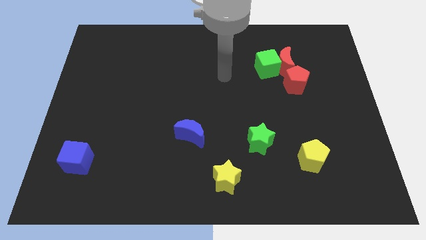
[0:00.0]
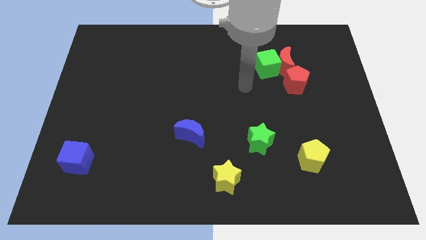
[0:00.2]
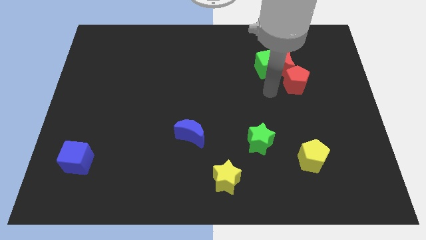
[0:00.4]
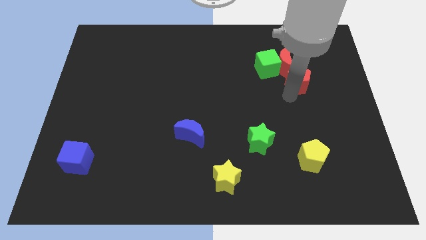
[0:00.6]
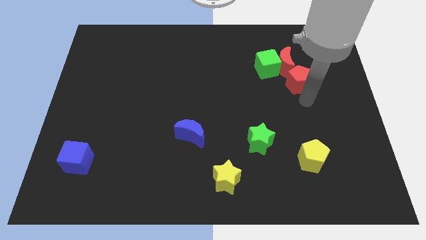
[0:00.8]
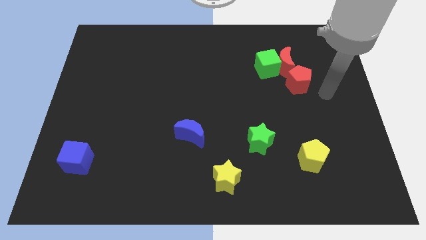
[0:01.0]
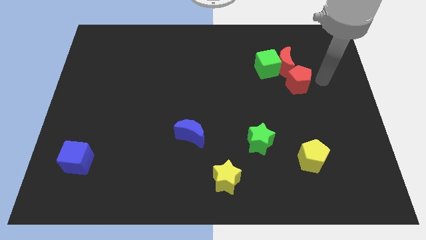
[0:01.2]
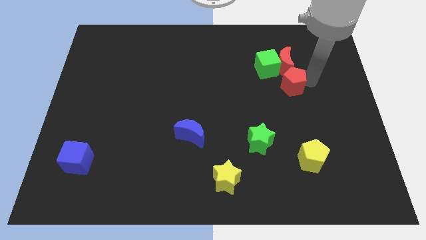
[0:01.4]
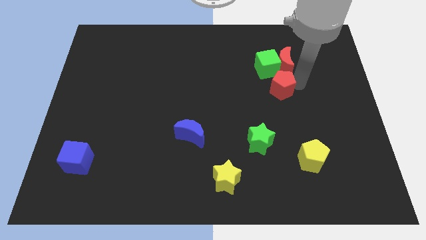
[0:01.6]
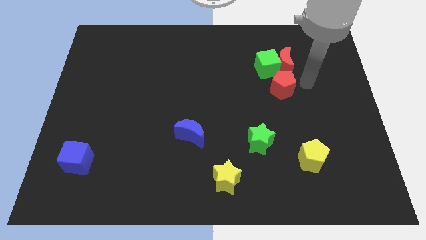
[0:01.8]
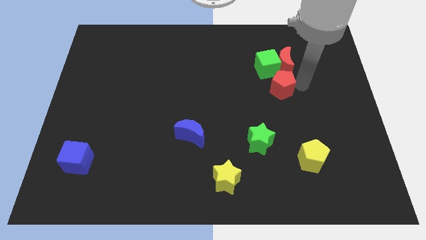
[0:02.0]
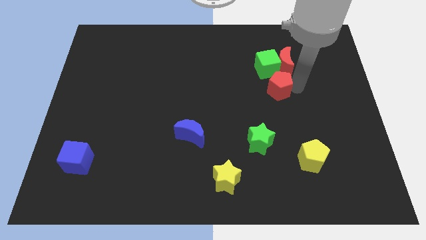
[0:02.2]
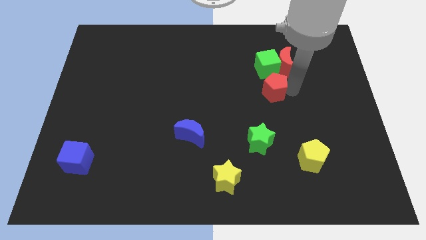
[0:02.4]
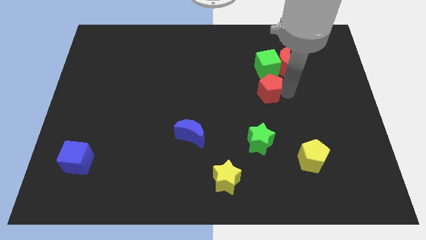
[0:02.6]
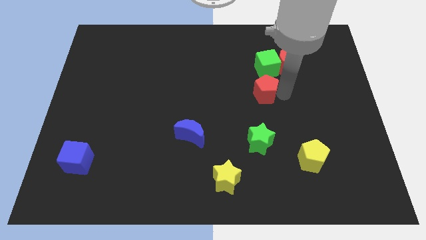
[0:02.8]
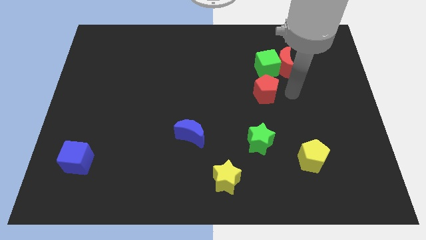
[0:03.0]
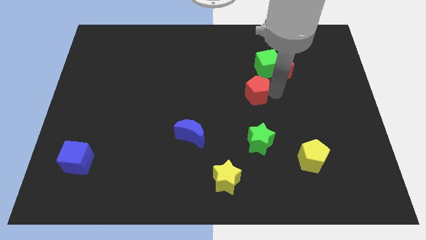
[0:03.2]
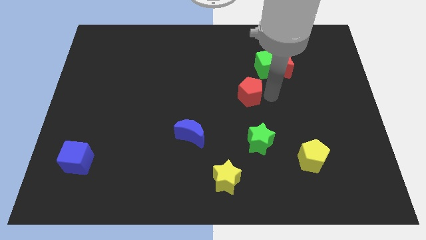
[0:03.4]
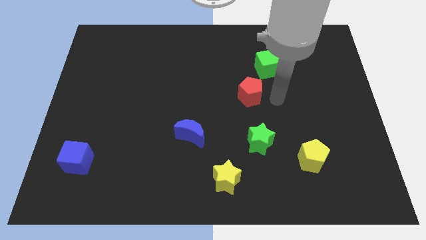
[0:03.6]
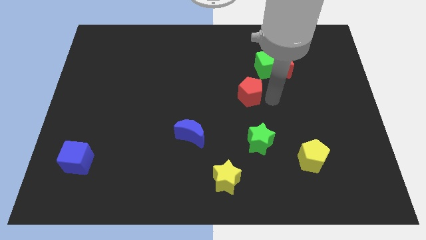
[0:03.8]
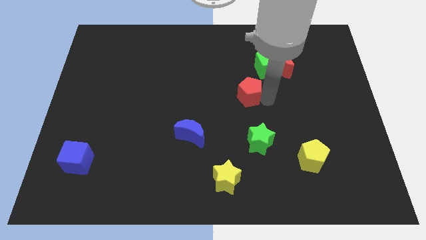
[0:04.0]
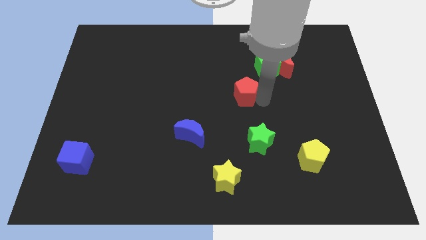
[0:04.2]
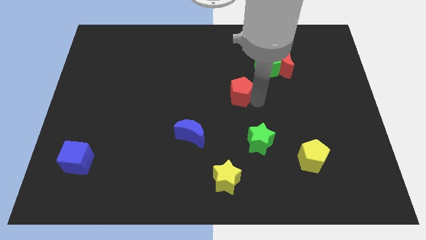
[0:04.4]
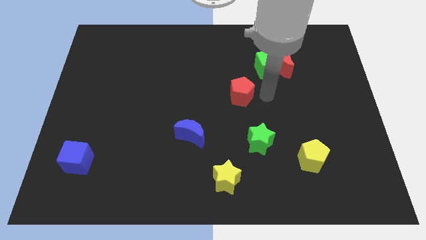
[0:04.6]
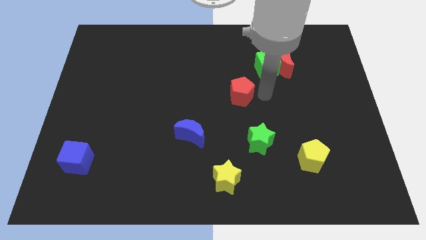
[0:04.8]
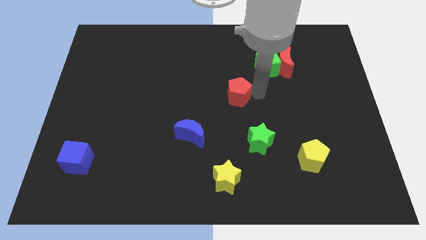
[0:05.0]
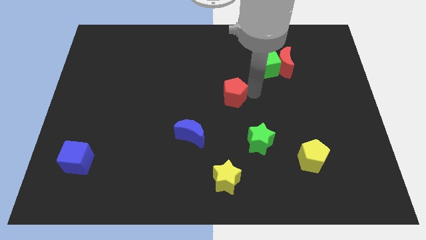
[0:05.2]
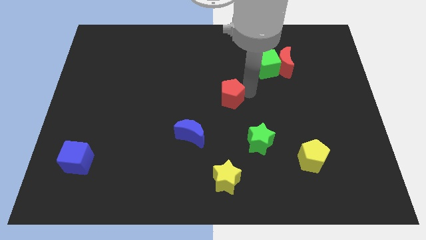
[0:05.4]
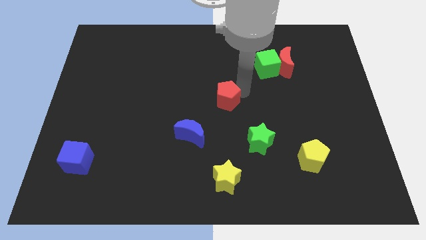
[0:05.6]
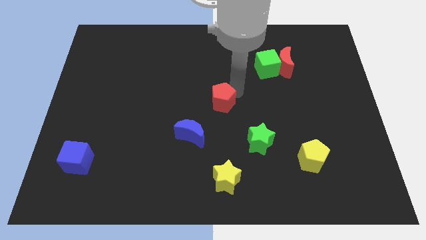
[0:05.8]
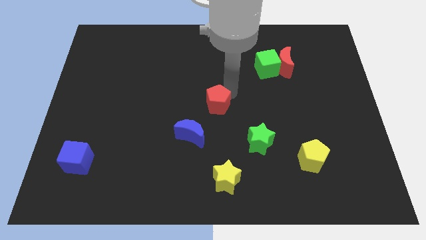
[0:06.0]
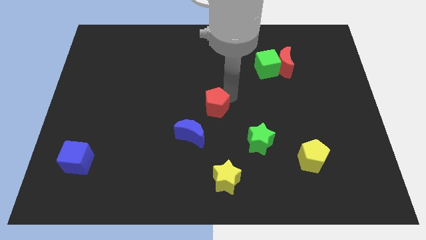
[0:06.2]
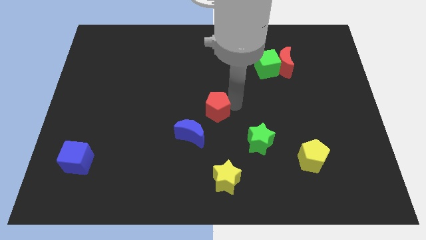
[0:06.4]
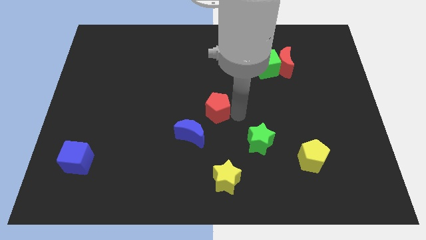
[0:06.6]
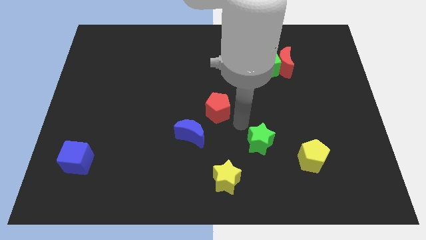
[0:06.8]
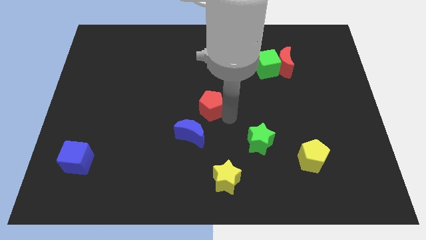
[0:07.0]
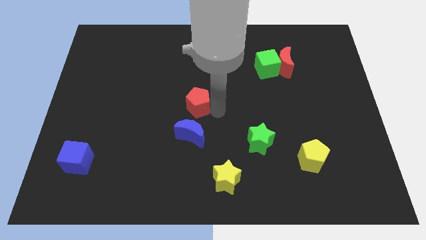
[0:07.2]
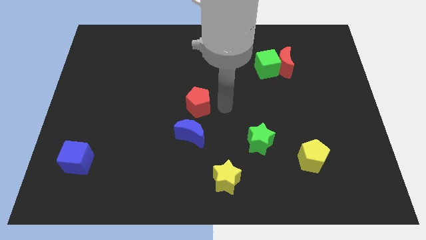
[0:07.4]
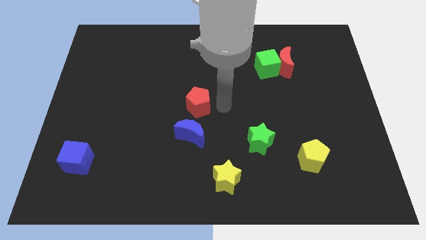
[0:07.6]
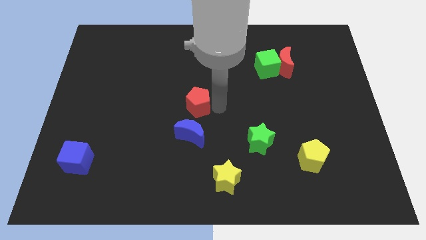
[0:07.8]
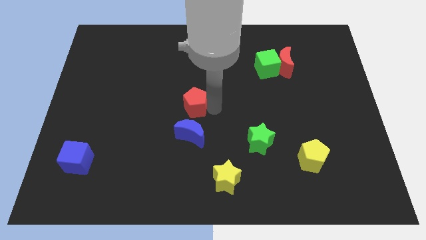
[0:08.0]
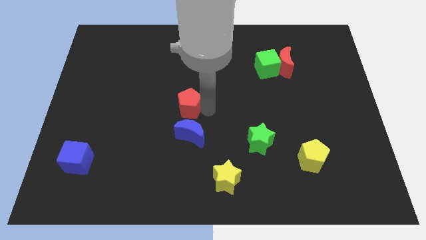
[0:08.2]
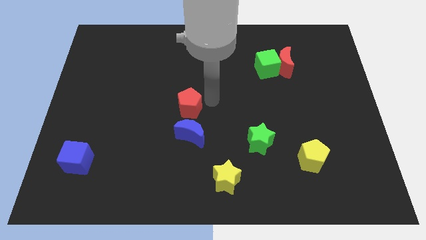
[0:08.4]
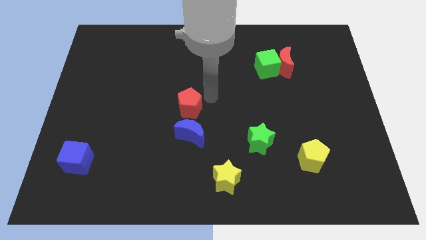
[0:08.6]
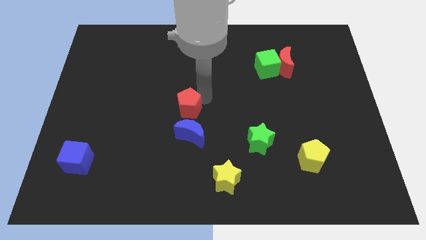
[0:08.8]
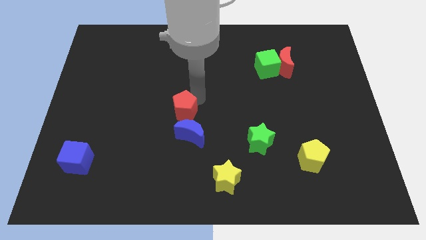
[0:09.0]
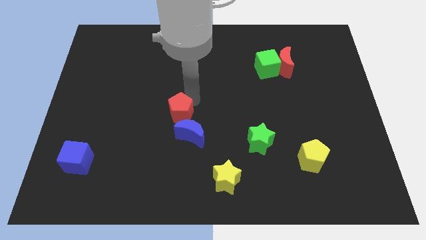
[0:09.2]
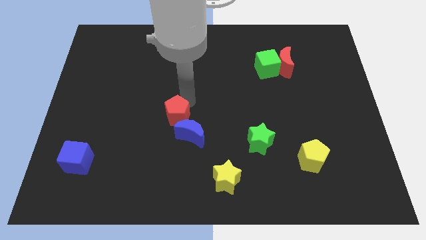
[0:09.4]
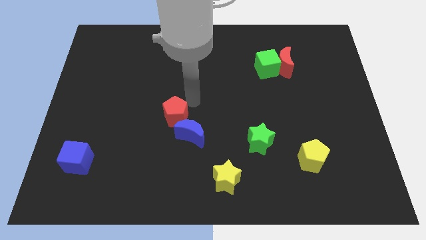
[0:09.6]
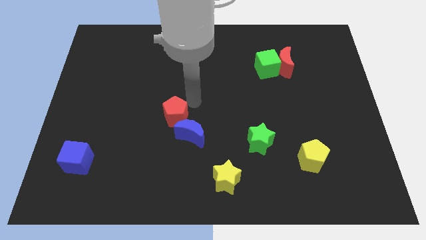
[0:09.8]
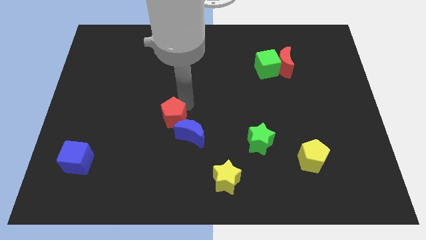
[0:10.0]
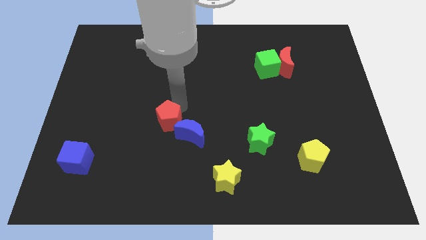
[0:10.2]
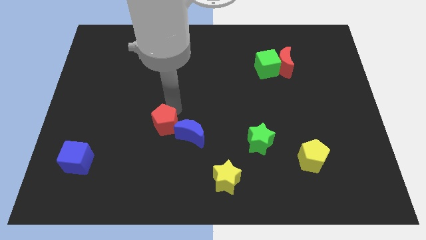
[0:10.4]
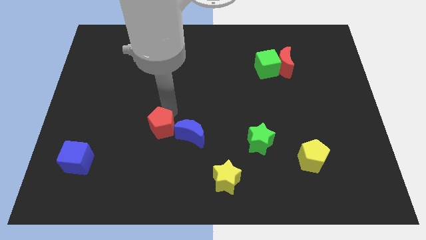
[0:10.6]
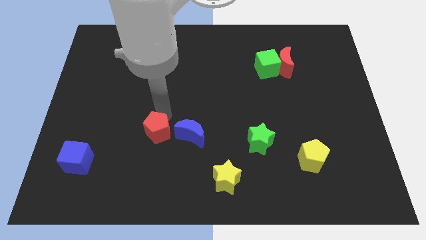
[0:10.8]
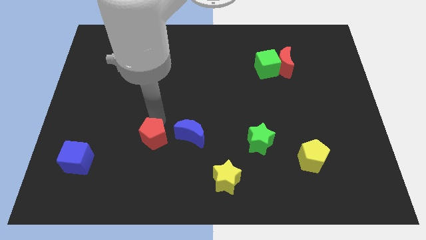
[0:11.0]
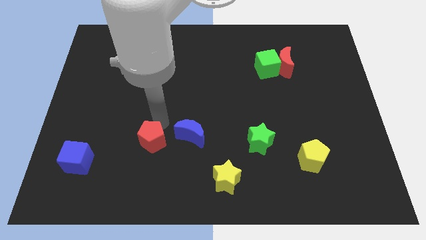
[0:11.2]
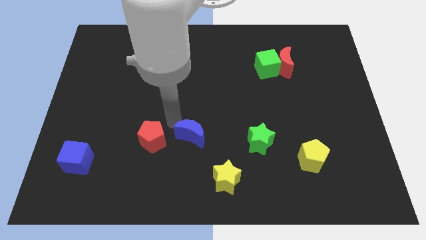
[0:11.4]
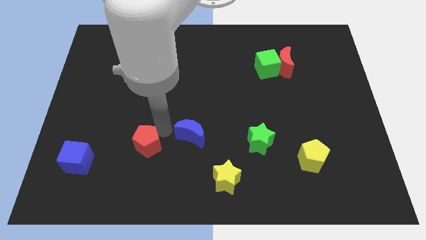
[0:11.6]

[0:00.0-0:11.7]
push the red pentagon right of the blue cube

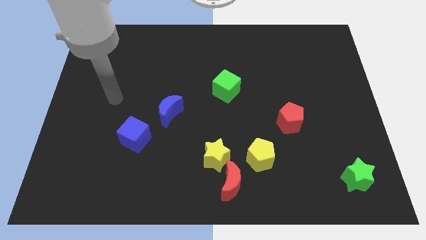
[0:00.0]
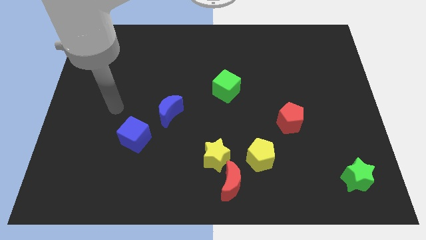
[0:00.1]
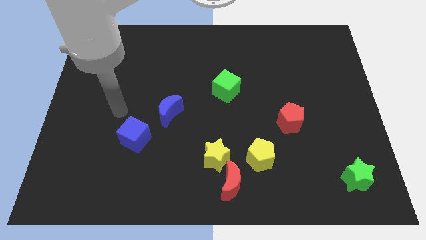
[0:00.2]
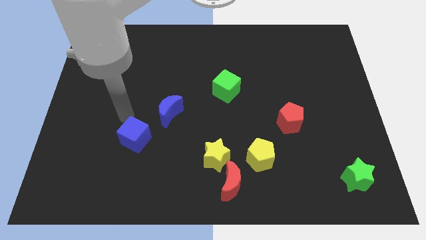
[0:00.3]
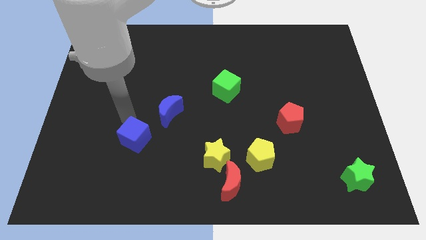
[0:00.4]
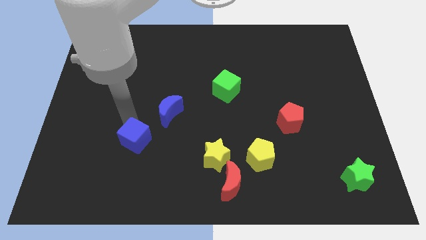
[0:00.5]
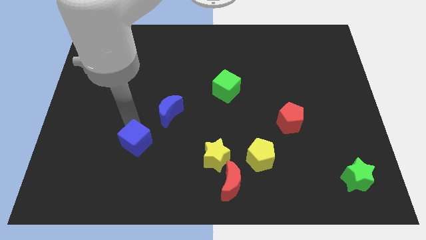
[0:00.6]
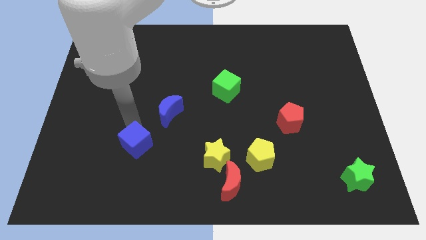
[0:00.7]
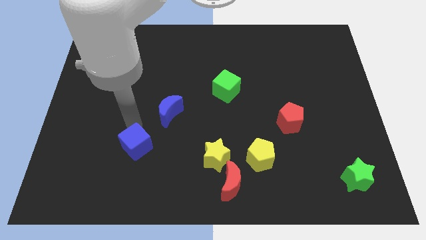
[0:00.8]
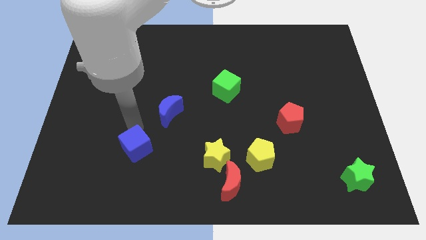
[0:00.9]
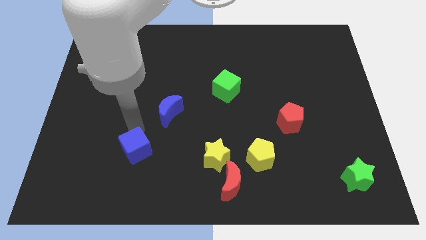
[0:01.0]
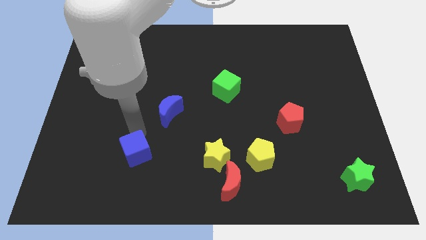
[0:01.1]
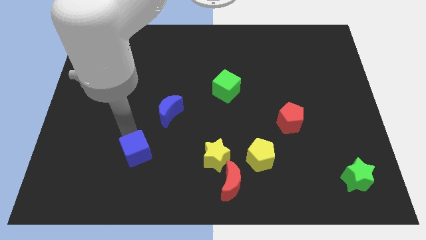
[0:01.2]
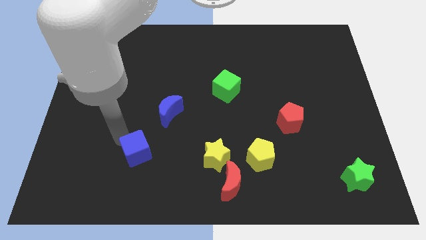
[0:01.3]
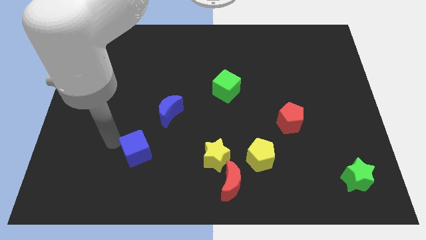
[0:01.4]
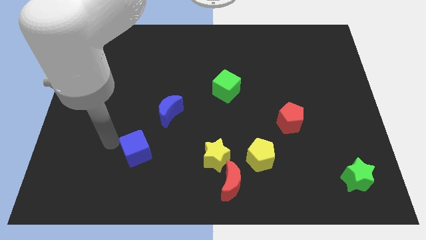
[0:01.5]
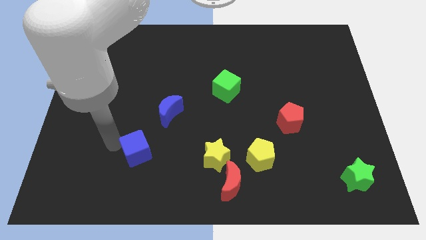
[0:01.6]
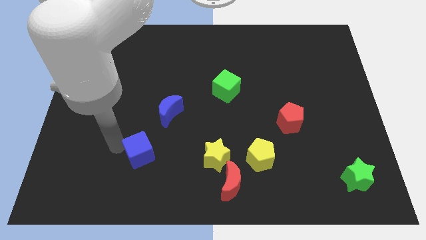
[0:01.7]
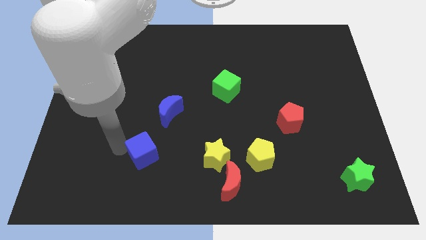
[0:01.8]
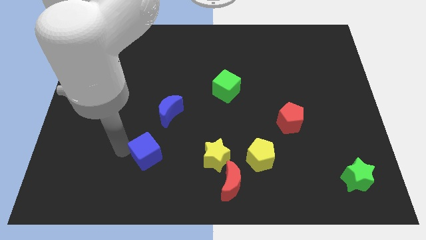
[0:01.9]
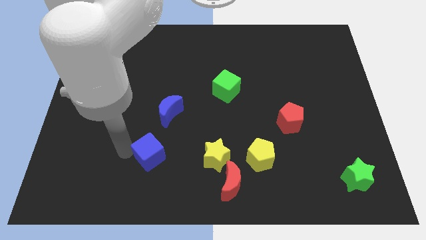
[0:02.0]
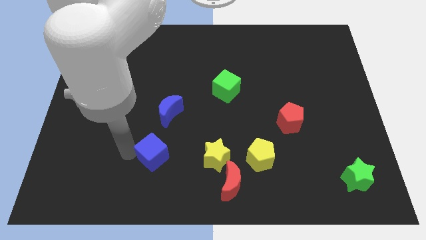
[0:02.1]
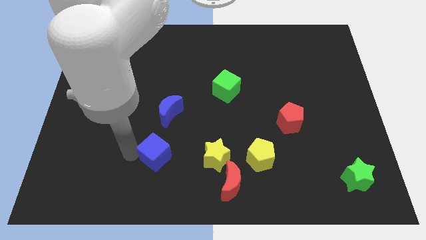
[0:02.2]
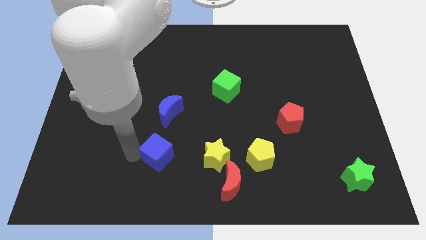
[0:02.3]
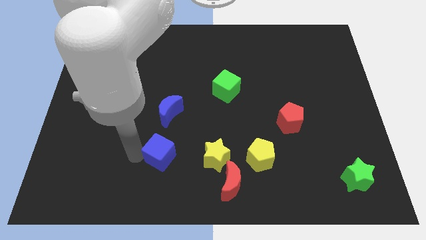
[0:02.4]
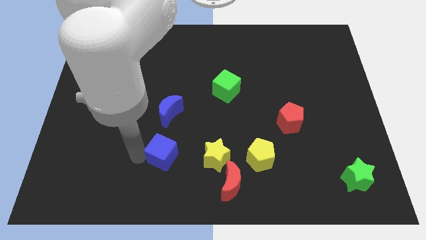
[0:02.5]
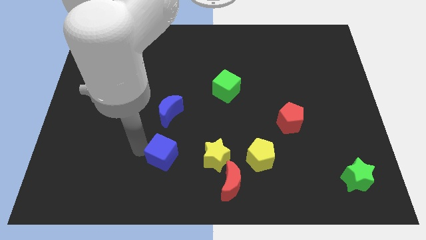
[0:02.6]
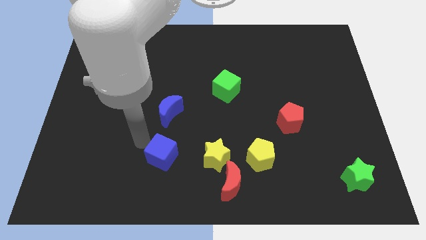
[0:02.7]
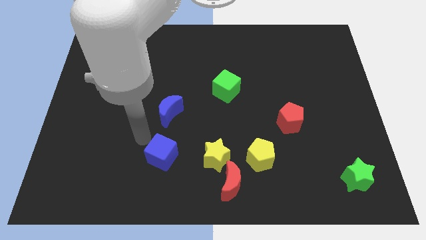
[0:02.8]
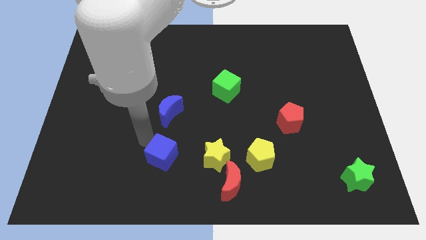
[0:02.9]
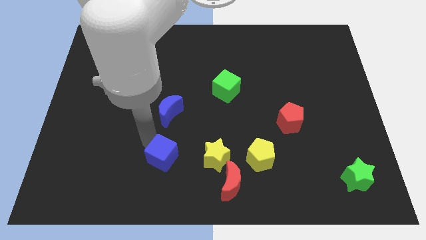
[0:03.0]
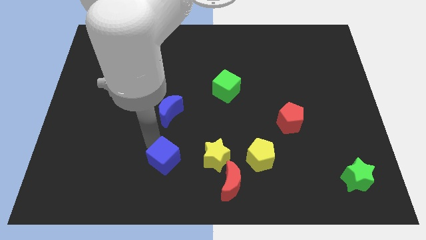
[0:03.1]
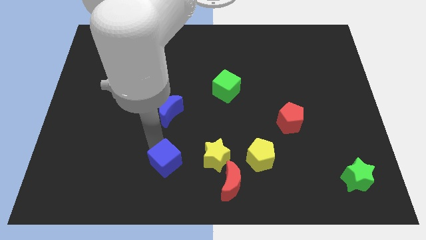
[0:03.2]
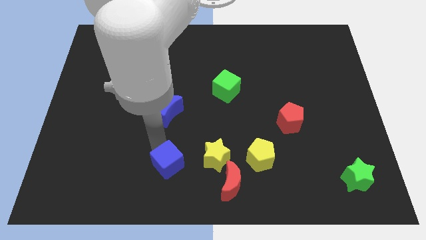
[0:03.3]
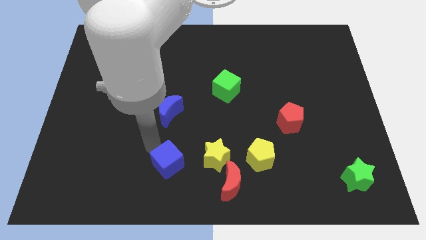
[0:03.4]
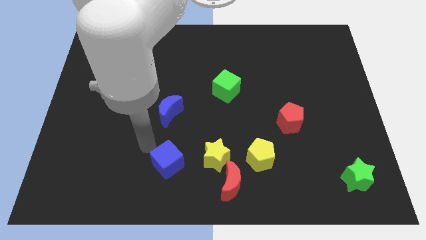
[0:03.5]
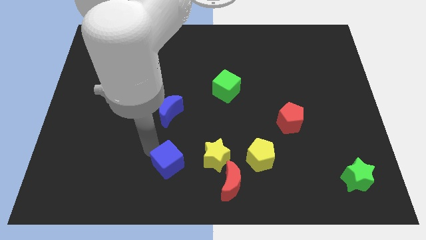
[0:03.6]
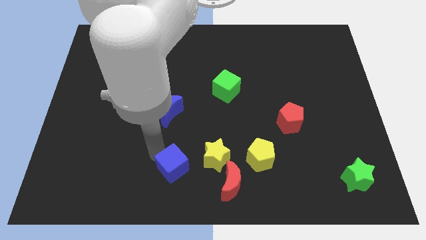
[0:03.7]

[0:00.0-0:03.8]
push the blue cube to the bottom left side of the yellow star
